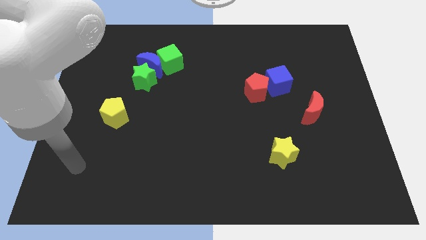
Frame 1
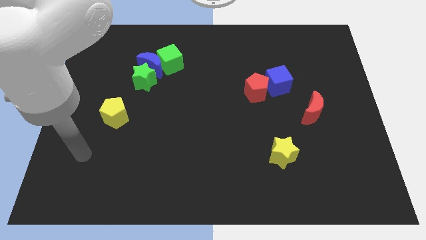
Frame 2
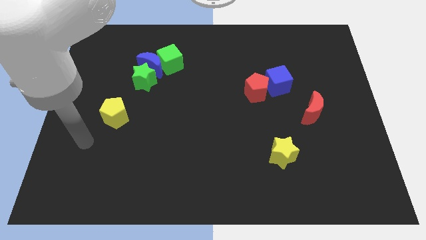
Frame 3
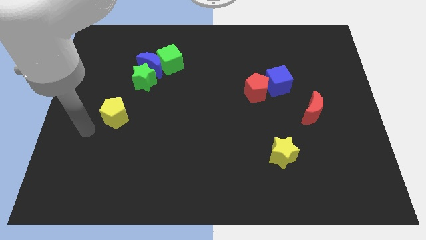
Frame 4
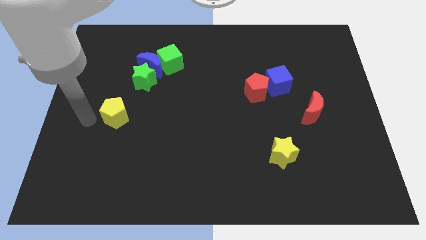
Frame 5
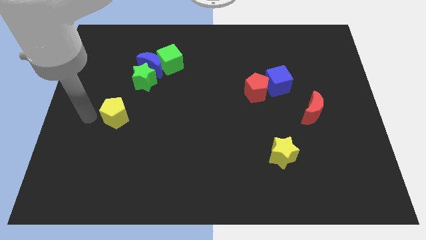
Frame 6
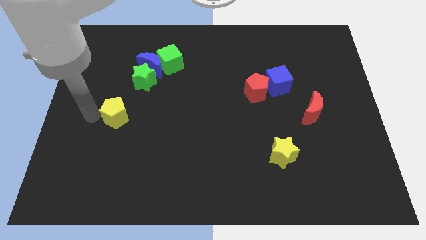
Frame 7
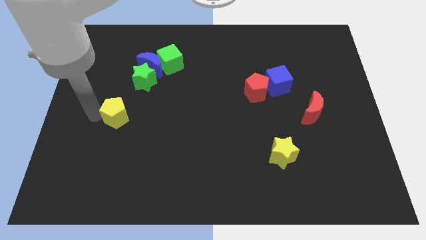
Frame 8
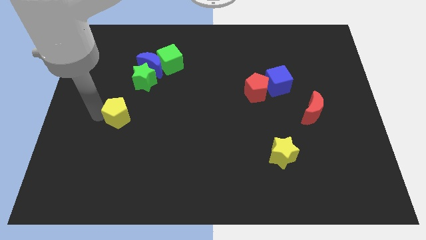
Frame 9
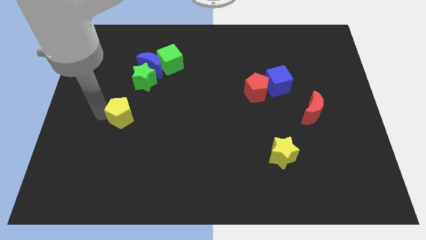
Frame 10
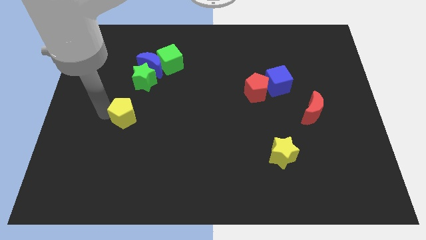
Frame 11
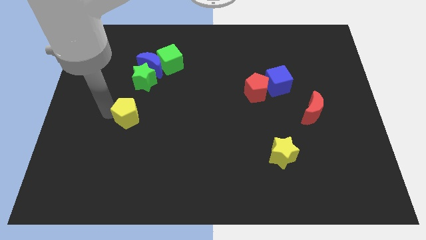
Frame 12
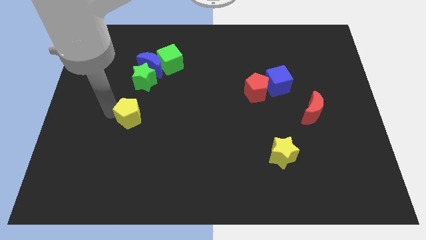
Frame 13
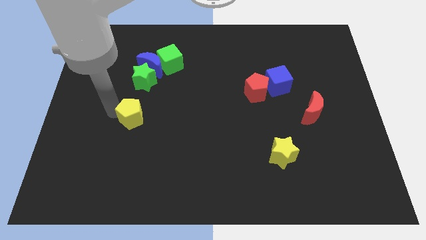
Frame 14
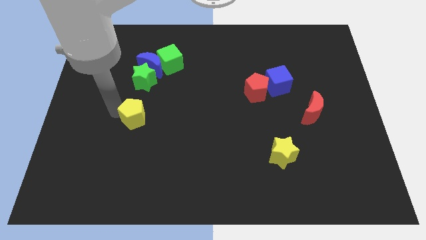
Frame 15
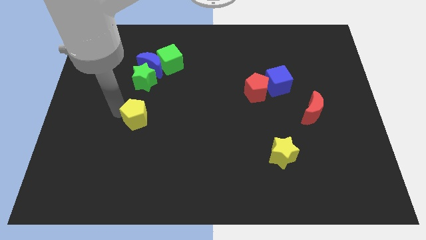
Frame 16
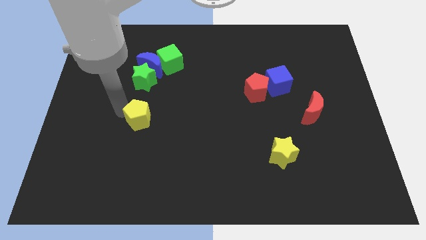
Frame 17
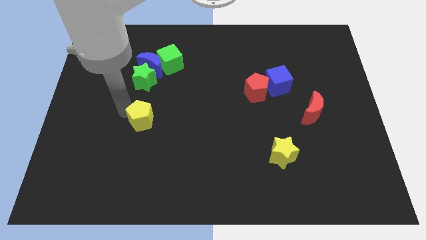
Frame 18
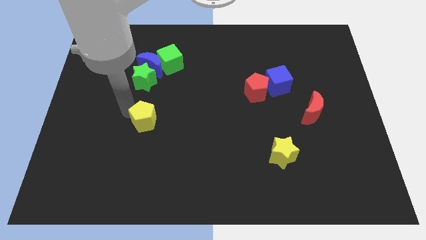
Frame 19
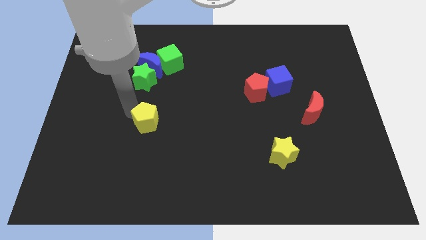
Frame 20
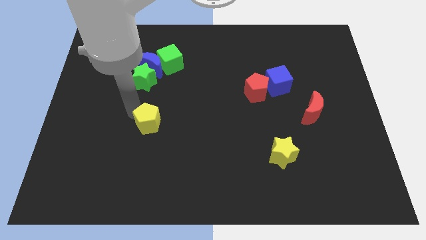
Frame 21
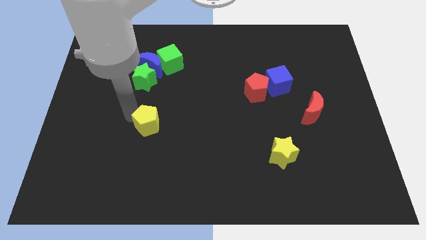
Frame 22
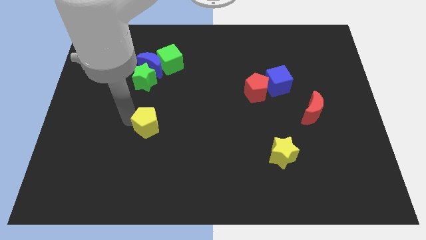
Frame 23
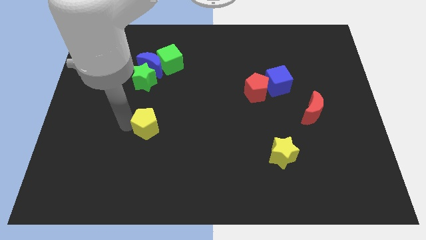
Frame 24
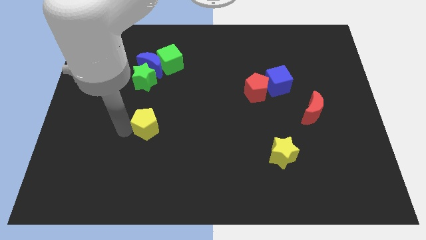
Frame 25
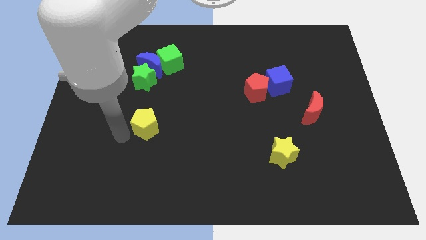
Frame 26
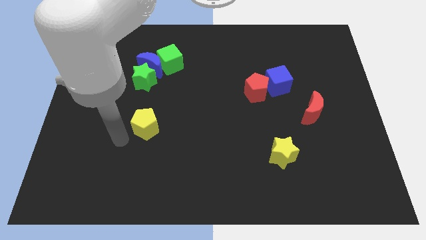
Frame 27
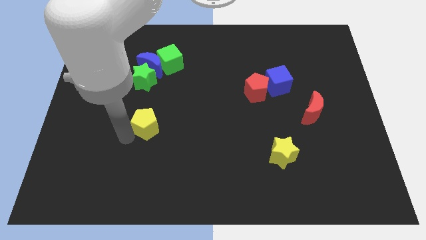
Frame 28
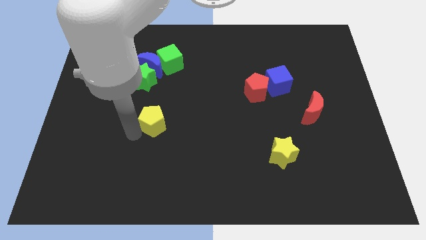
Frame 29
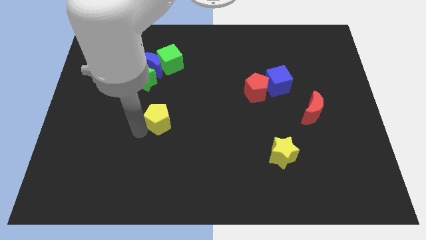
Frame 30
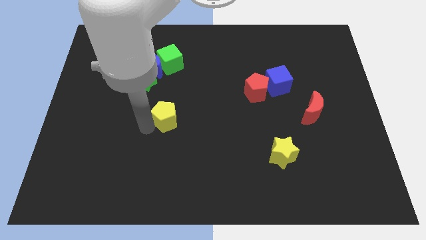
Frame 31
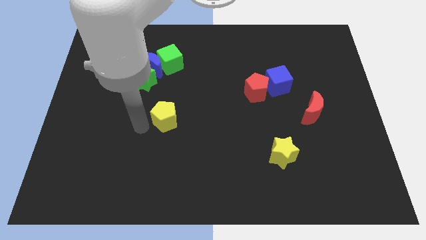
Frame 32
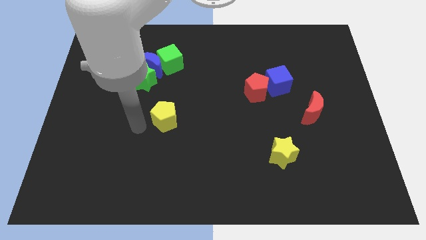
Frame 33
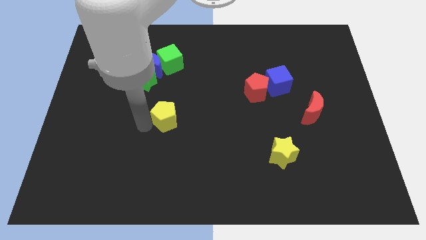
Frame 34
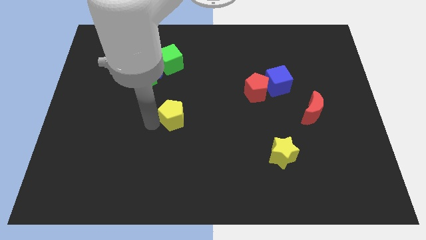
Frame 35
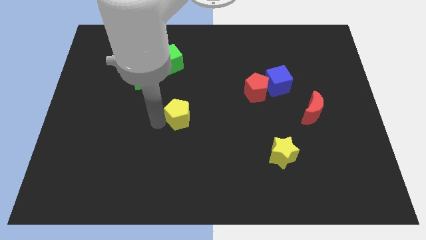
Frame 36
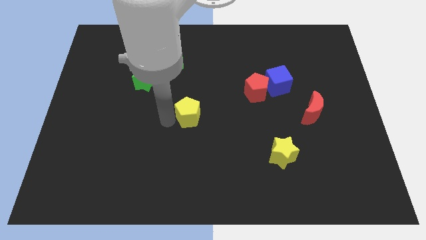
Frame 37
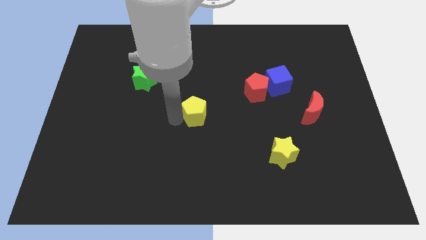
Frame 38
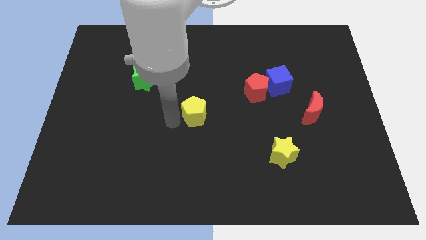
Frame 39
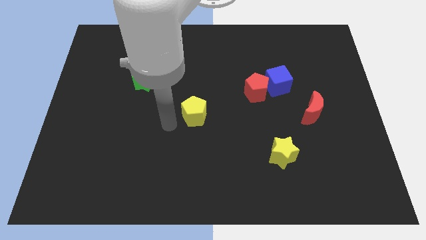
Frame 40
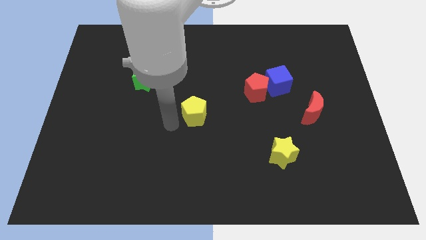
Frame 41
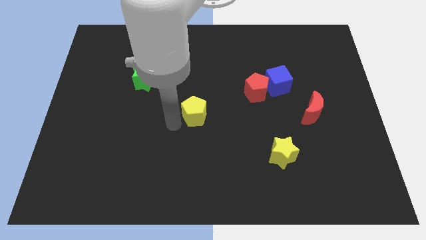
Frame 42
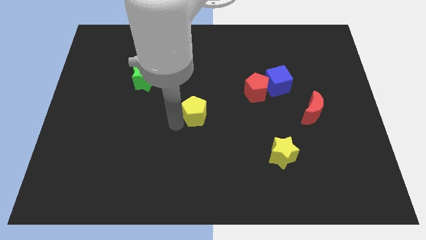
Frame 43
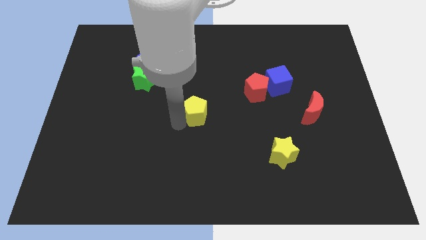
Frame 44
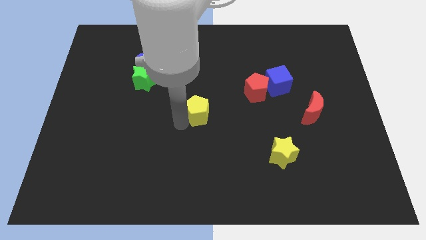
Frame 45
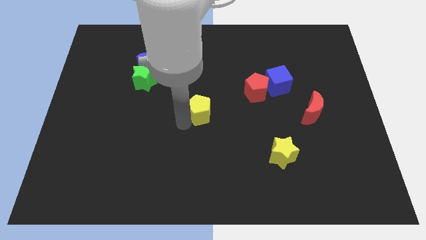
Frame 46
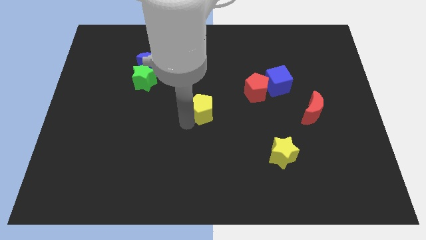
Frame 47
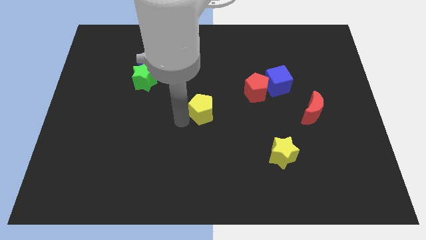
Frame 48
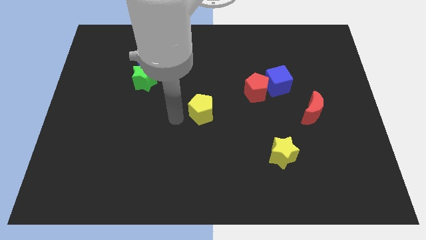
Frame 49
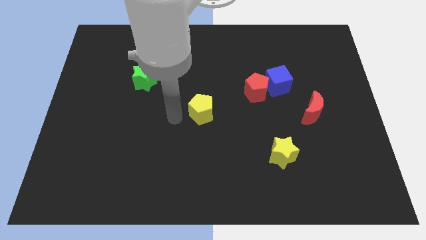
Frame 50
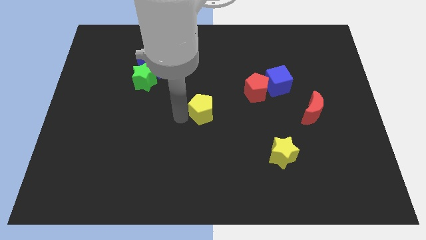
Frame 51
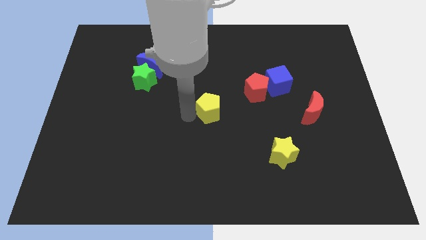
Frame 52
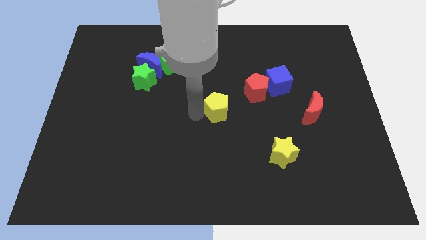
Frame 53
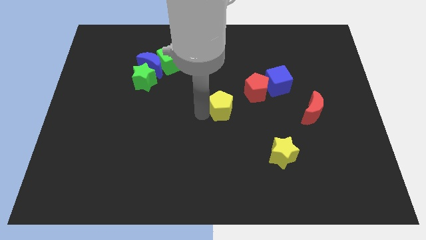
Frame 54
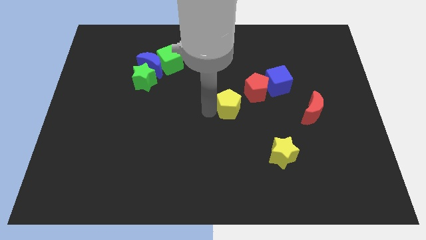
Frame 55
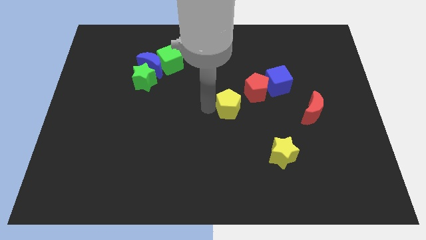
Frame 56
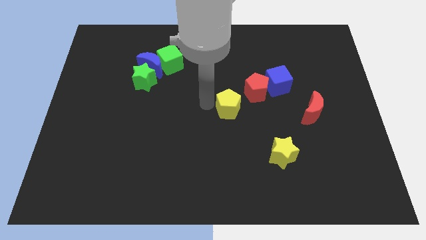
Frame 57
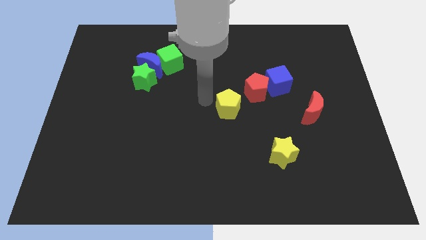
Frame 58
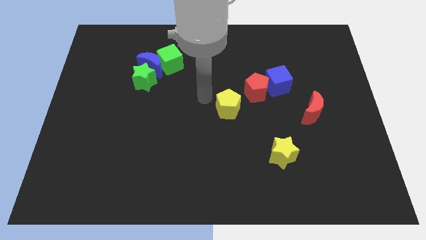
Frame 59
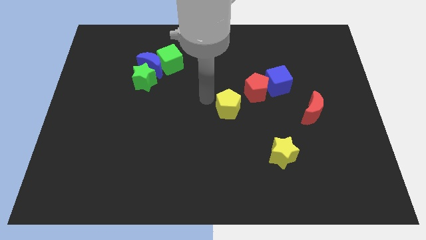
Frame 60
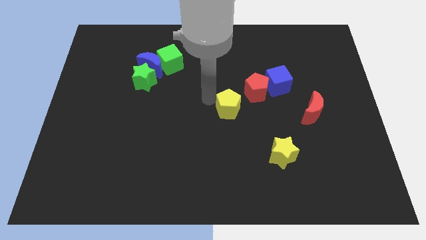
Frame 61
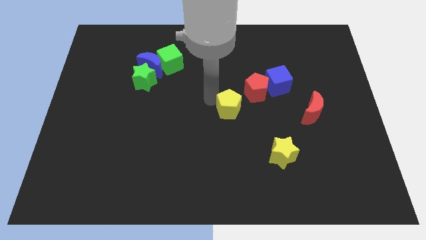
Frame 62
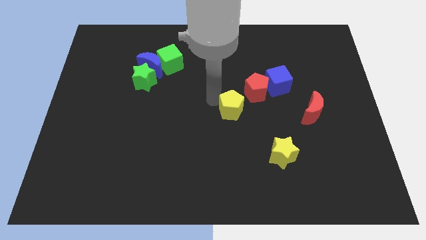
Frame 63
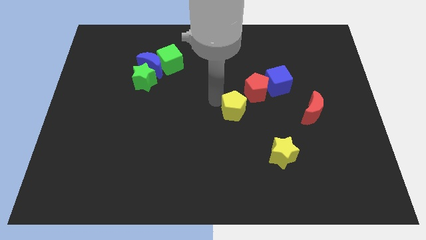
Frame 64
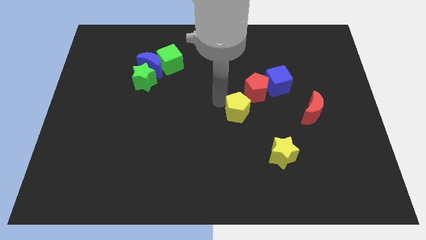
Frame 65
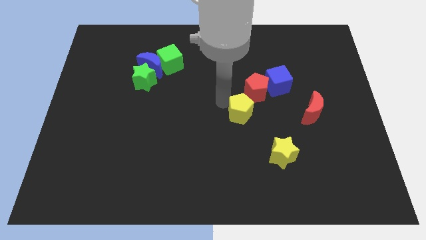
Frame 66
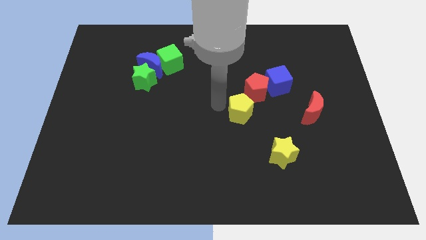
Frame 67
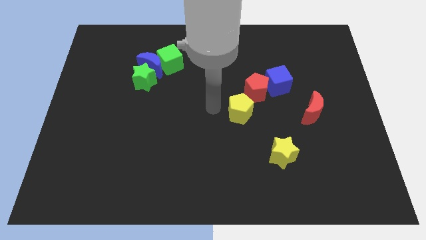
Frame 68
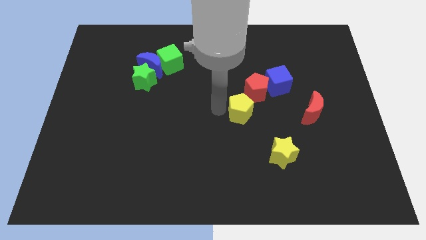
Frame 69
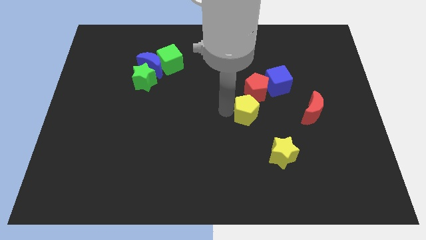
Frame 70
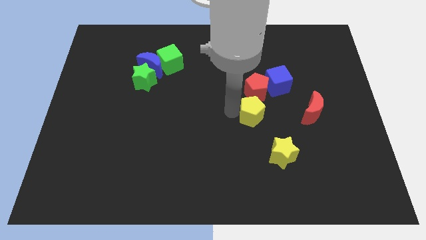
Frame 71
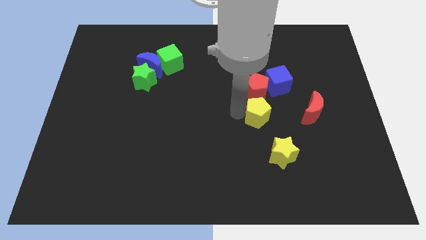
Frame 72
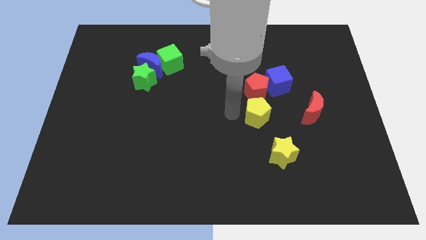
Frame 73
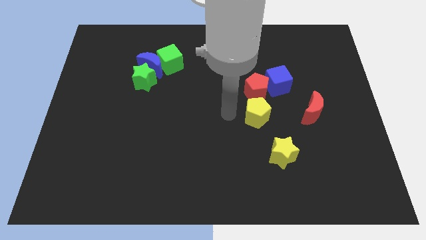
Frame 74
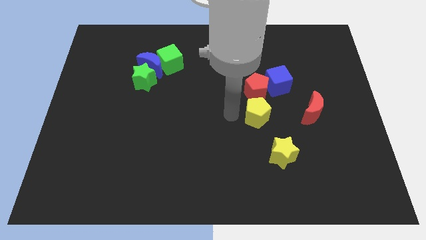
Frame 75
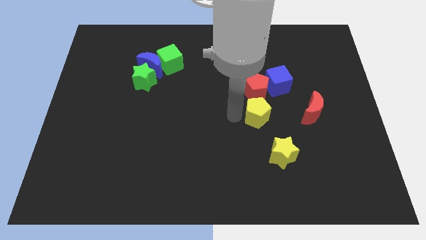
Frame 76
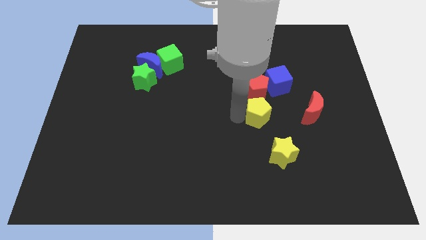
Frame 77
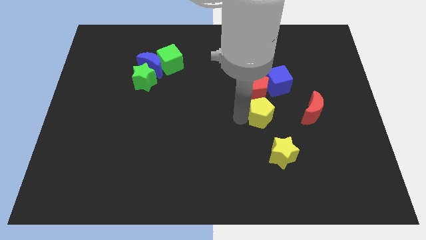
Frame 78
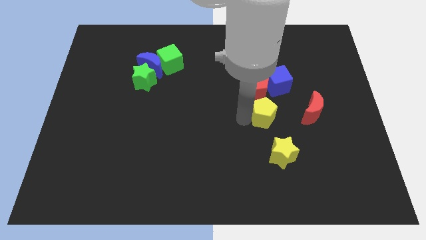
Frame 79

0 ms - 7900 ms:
push the yellow pentagon to the bottom side of the blue cube
